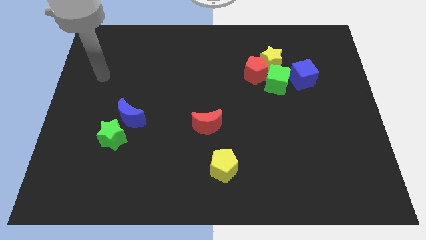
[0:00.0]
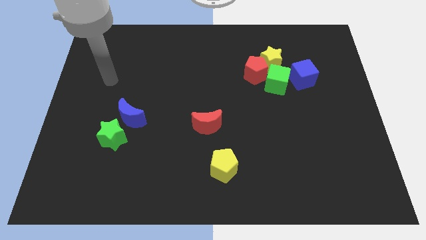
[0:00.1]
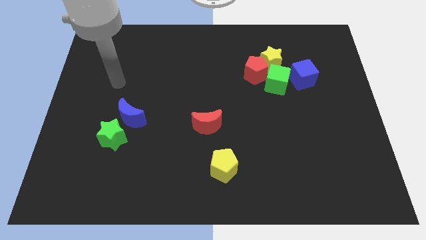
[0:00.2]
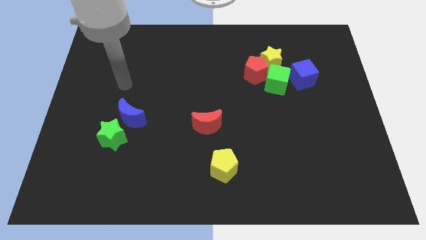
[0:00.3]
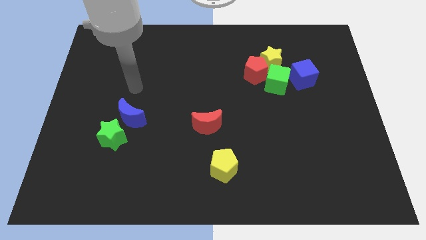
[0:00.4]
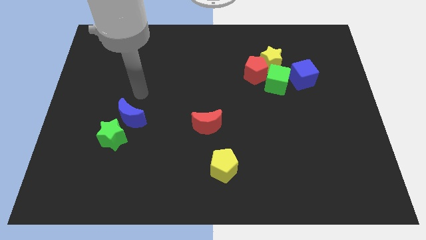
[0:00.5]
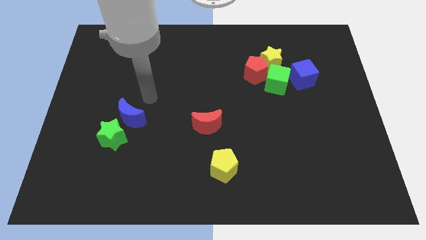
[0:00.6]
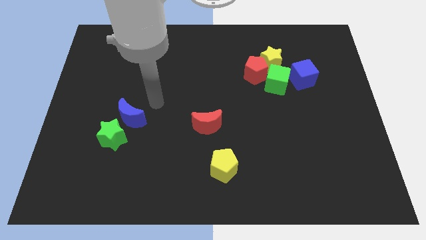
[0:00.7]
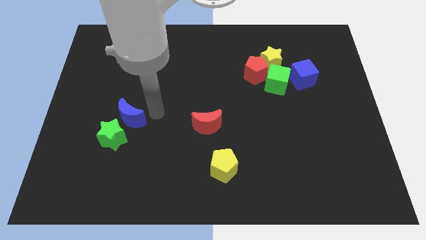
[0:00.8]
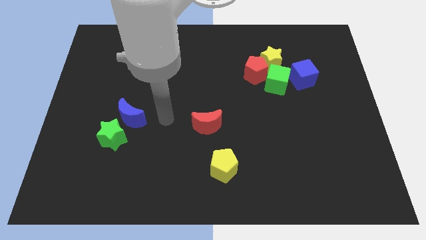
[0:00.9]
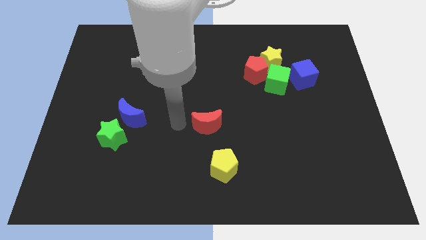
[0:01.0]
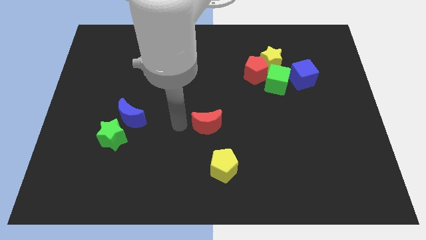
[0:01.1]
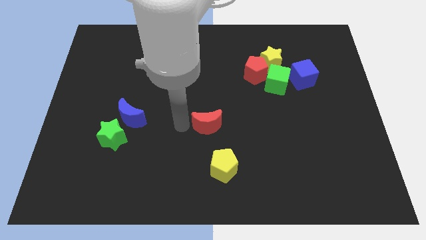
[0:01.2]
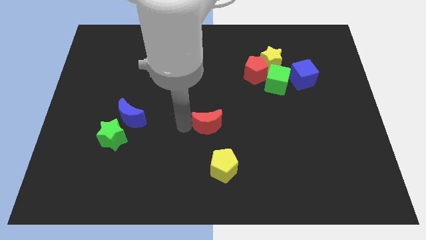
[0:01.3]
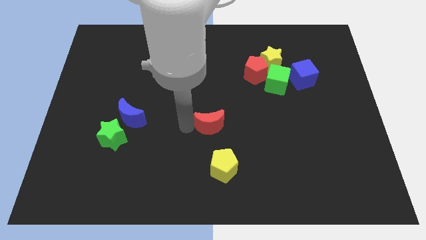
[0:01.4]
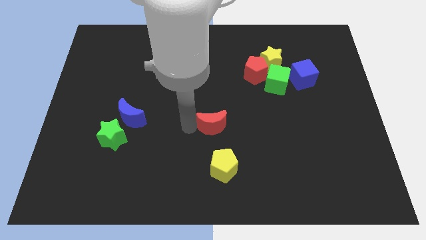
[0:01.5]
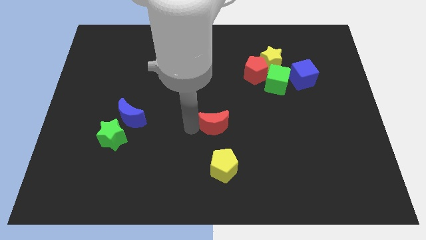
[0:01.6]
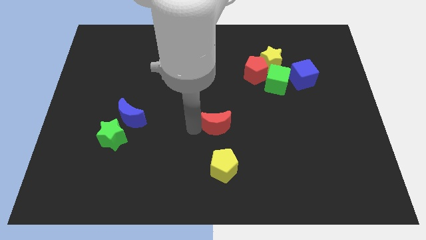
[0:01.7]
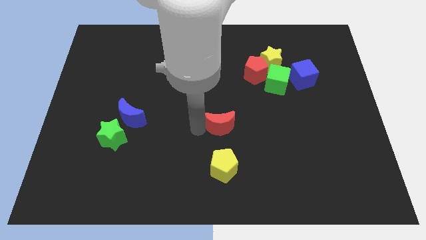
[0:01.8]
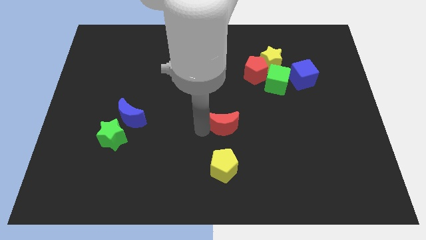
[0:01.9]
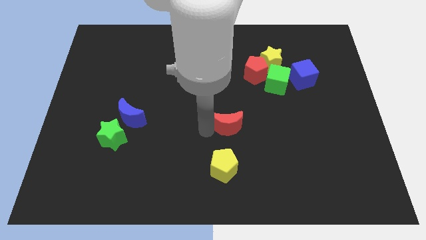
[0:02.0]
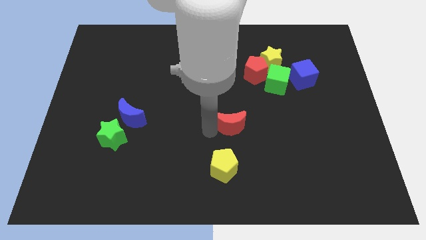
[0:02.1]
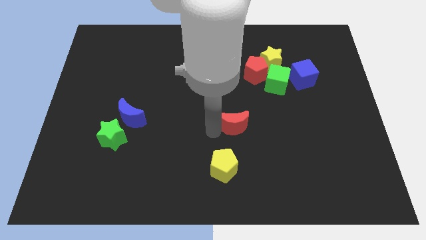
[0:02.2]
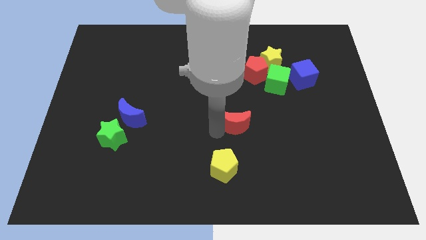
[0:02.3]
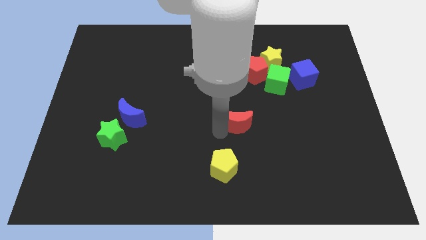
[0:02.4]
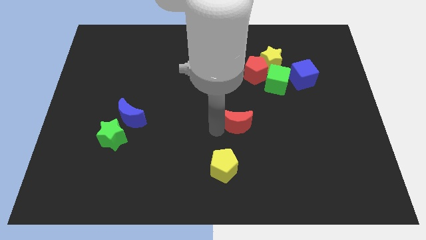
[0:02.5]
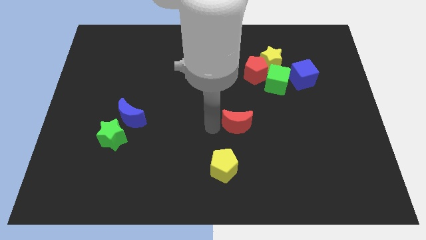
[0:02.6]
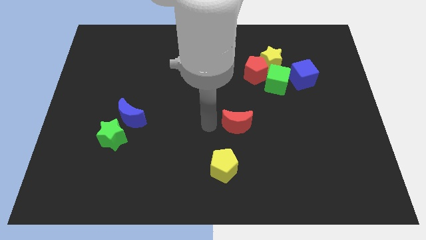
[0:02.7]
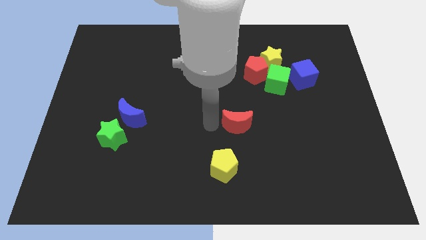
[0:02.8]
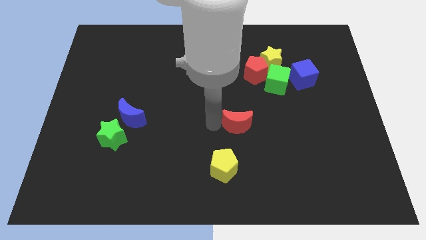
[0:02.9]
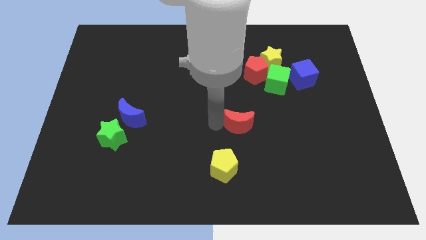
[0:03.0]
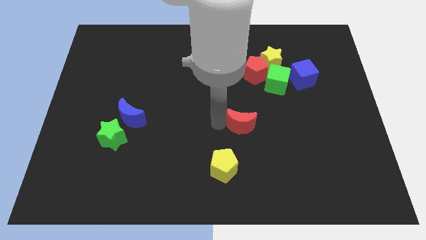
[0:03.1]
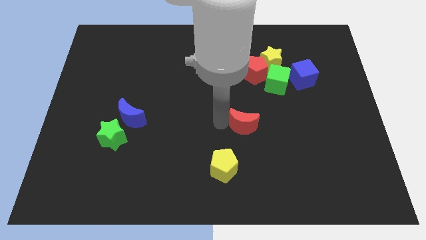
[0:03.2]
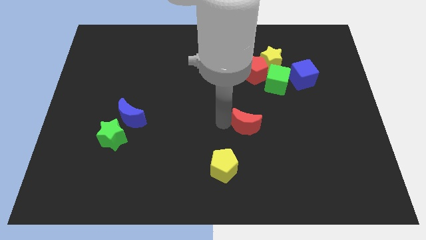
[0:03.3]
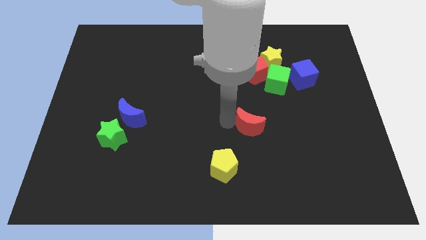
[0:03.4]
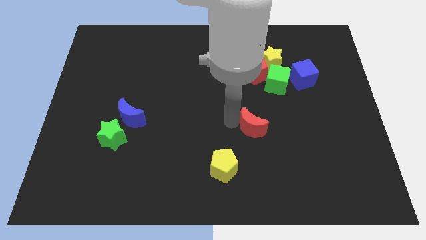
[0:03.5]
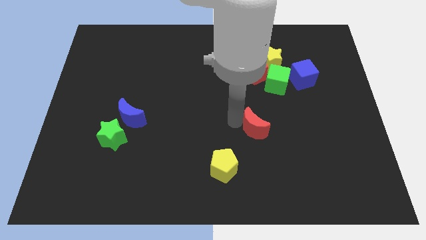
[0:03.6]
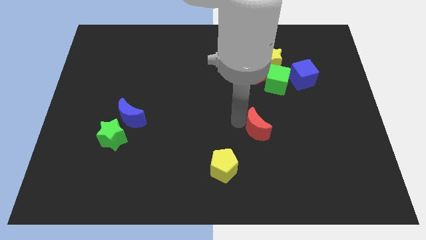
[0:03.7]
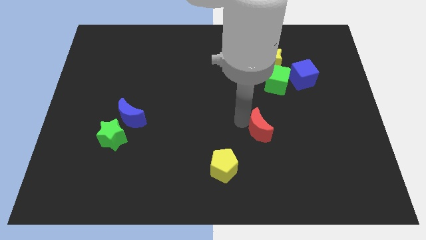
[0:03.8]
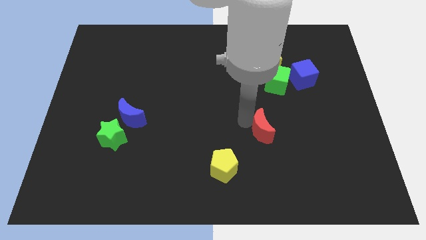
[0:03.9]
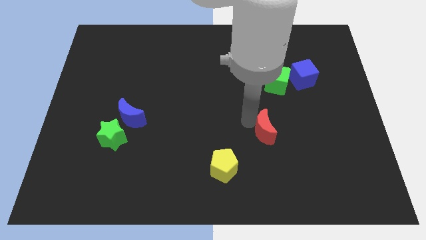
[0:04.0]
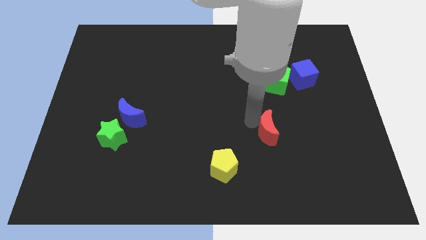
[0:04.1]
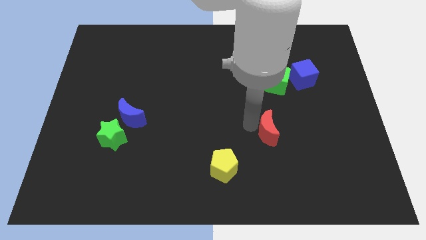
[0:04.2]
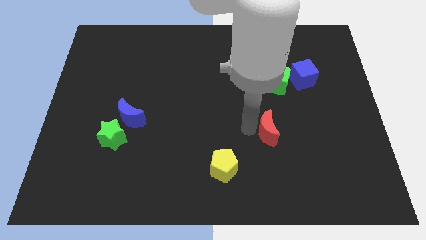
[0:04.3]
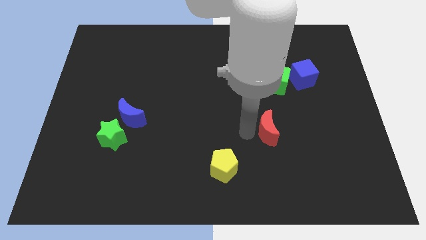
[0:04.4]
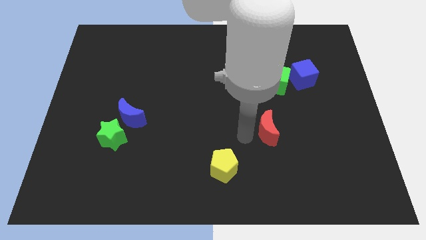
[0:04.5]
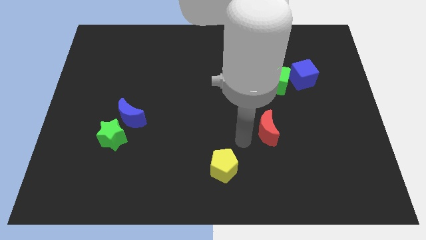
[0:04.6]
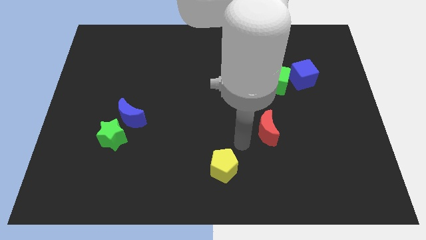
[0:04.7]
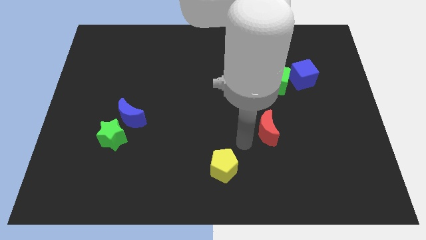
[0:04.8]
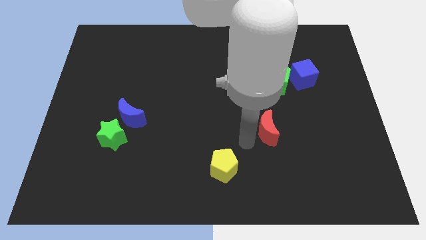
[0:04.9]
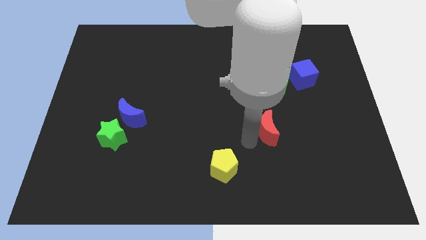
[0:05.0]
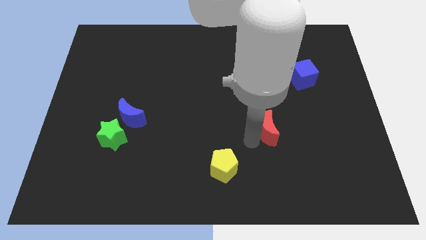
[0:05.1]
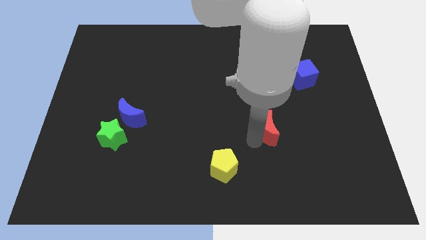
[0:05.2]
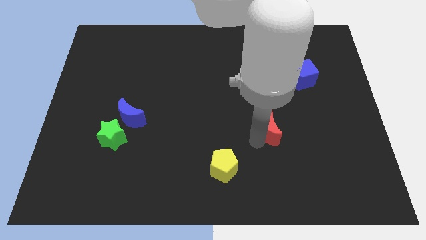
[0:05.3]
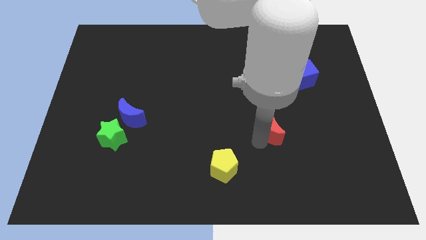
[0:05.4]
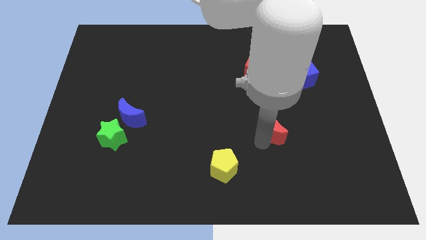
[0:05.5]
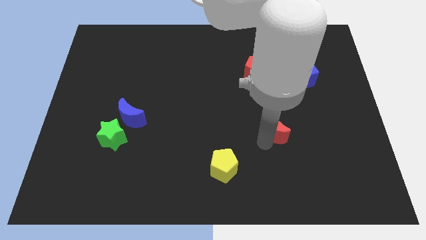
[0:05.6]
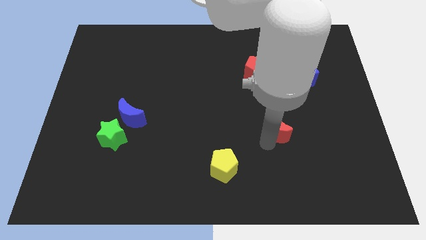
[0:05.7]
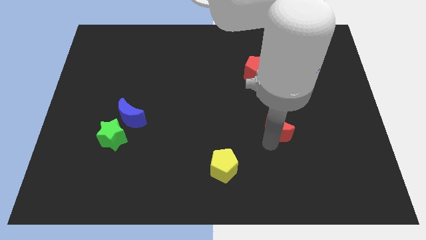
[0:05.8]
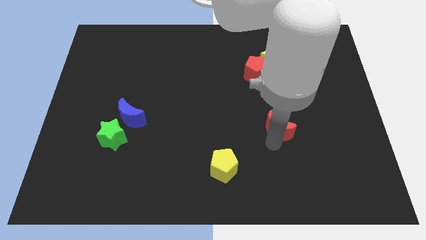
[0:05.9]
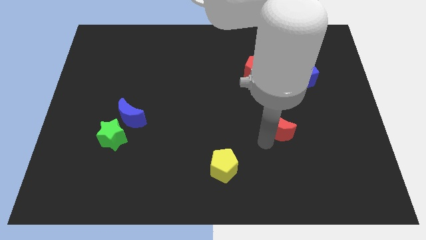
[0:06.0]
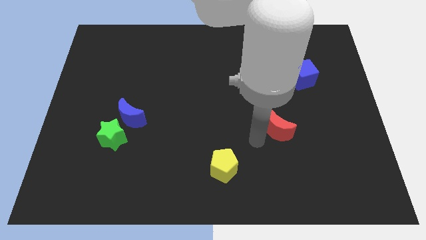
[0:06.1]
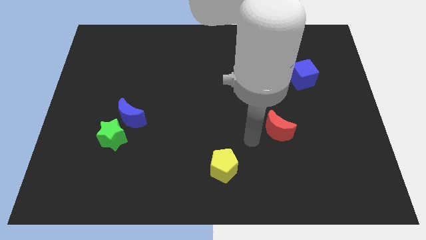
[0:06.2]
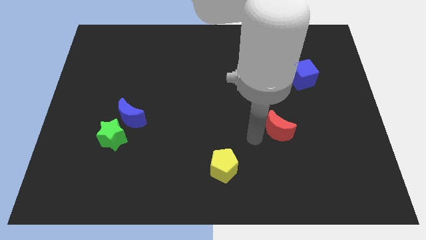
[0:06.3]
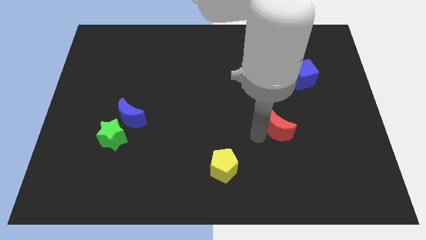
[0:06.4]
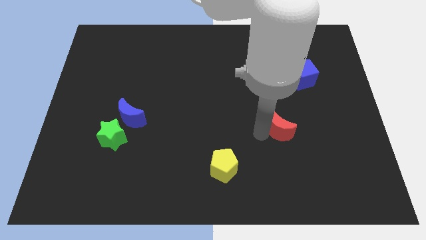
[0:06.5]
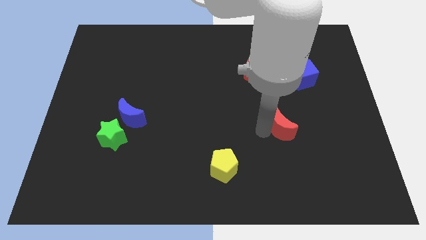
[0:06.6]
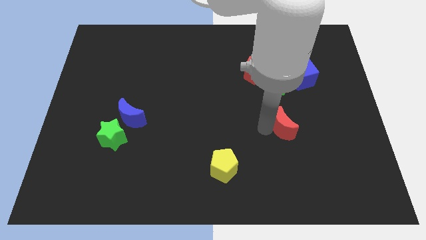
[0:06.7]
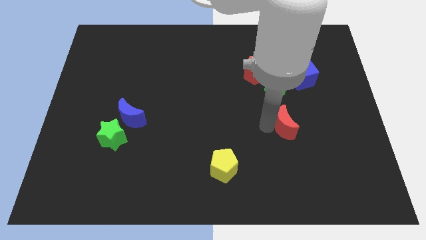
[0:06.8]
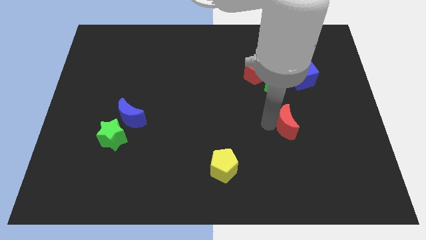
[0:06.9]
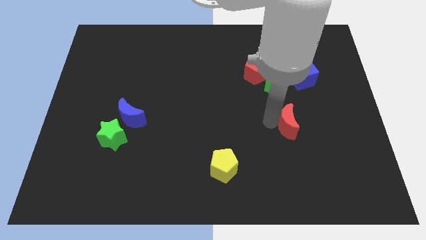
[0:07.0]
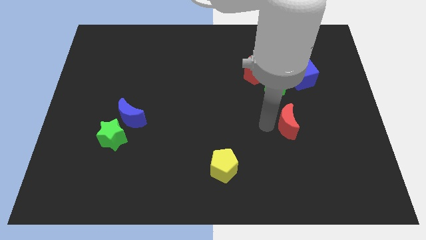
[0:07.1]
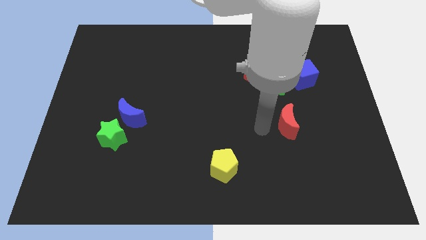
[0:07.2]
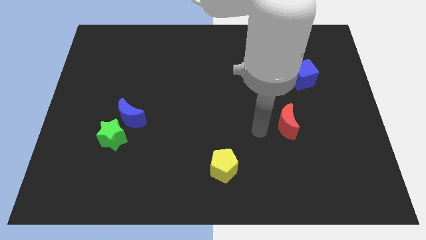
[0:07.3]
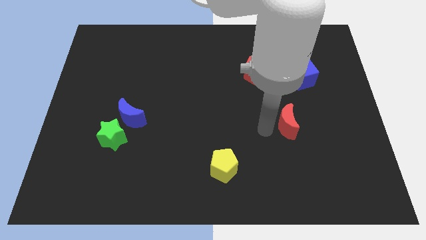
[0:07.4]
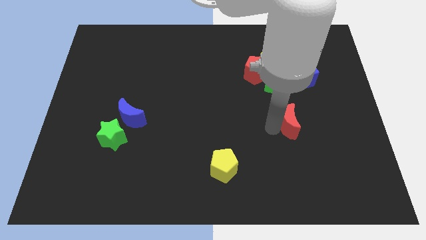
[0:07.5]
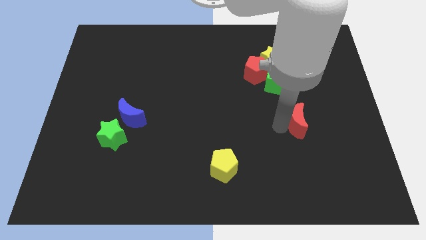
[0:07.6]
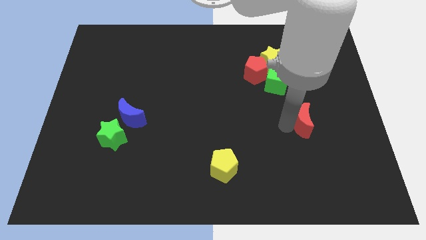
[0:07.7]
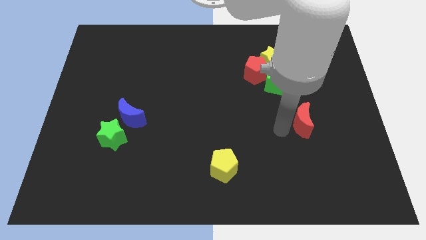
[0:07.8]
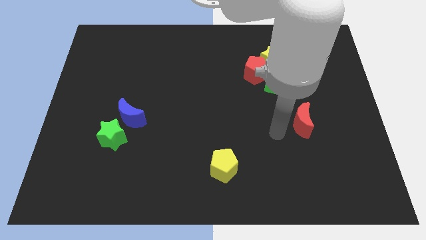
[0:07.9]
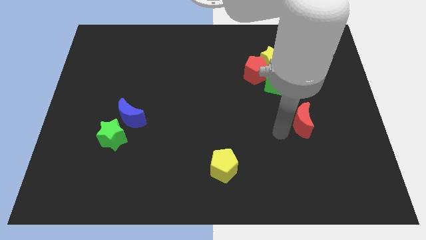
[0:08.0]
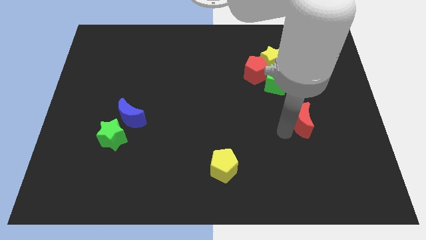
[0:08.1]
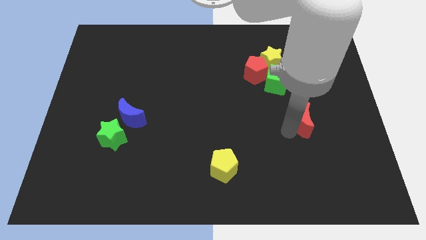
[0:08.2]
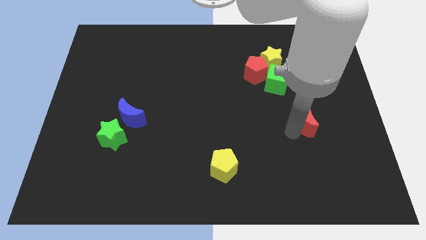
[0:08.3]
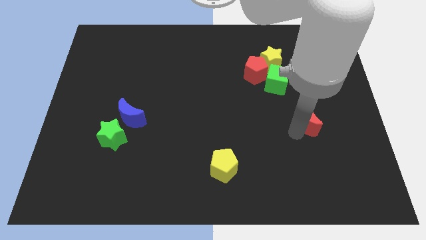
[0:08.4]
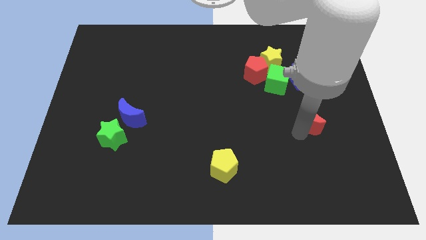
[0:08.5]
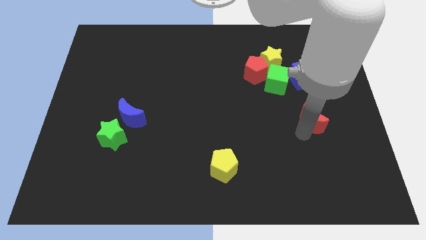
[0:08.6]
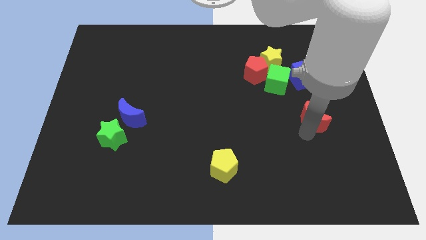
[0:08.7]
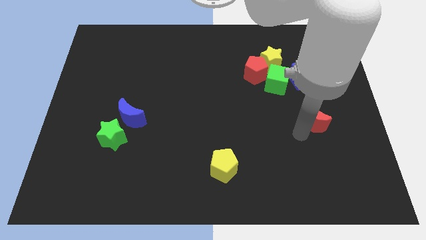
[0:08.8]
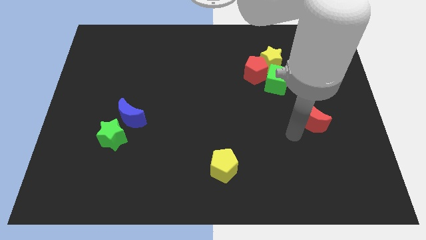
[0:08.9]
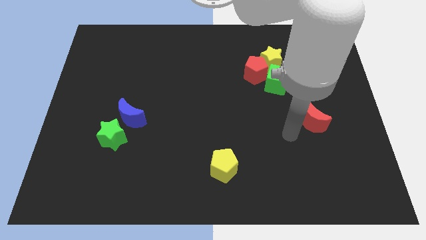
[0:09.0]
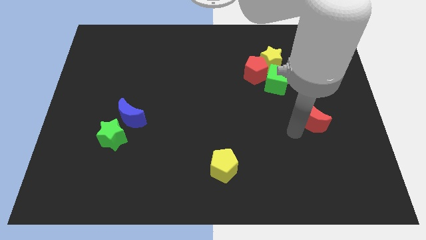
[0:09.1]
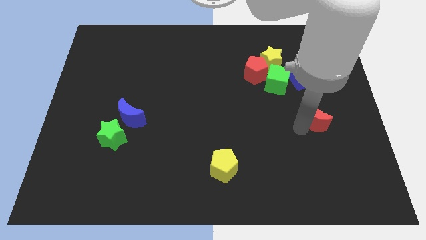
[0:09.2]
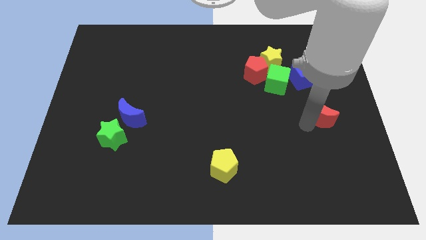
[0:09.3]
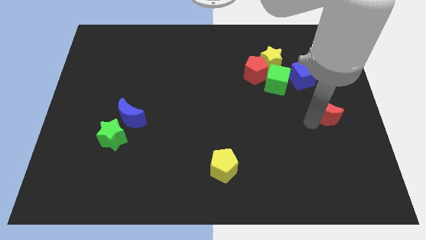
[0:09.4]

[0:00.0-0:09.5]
slide the red moon to the right side of the board
